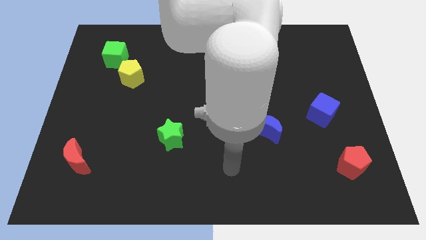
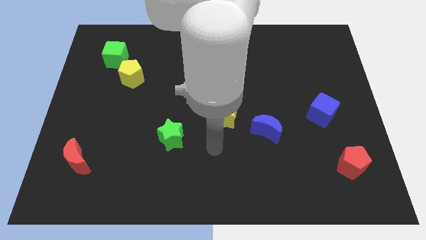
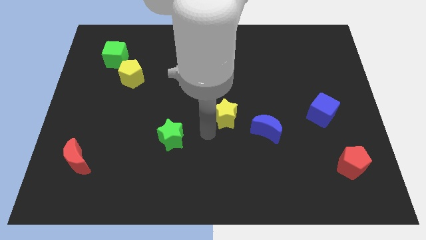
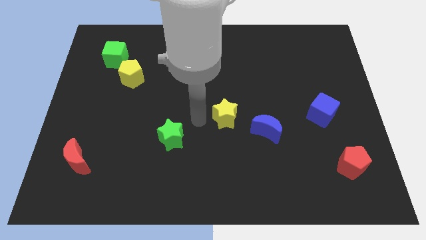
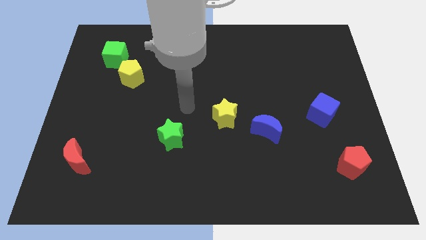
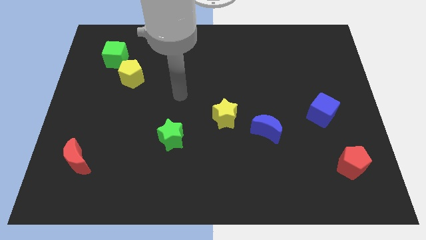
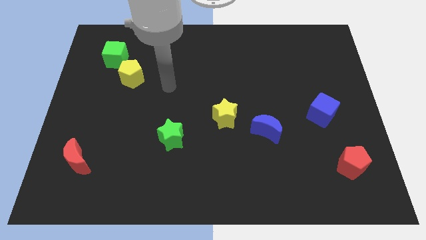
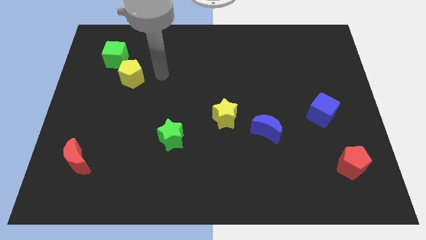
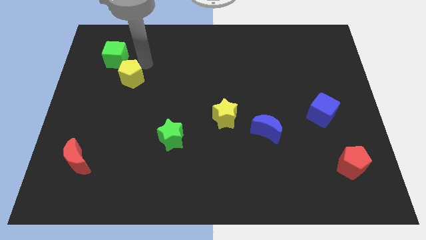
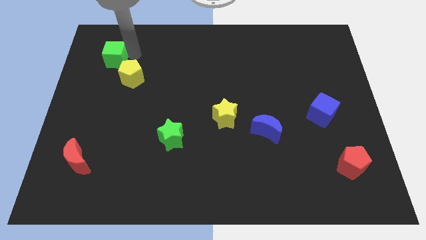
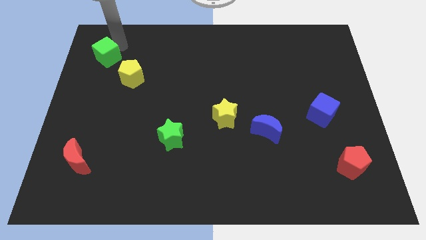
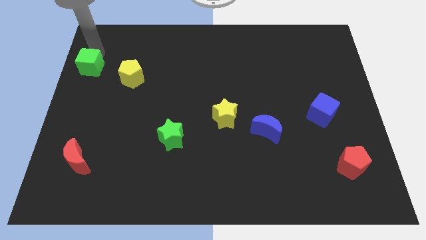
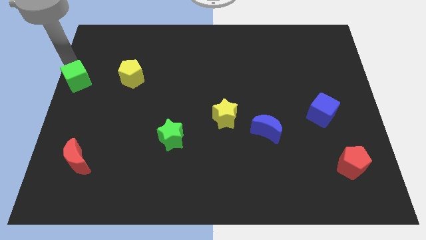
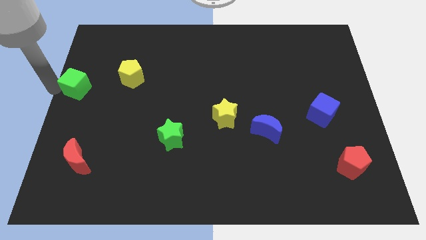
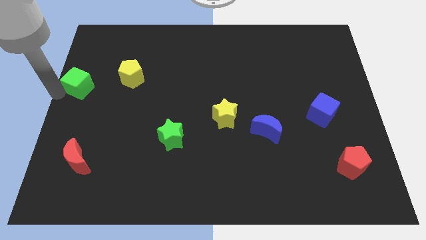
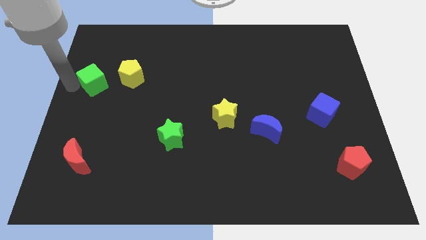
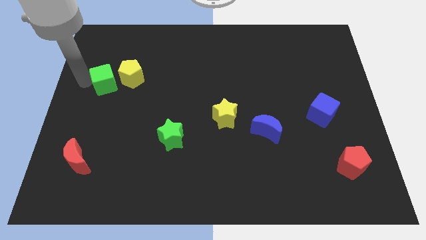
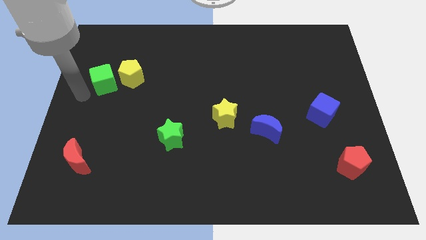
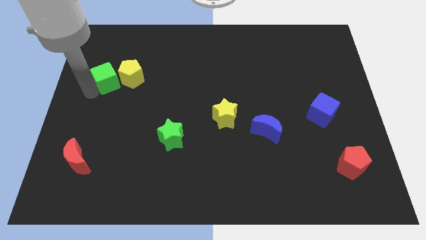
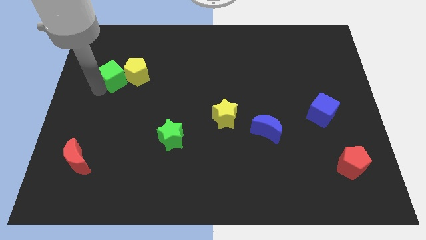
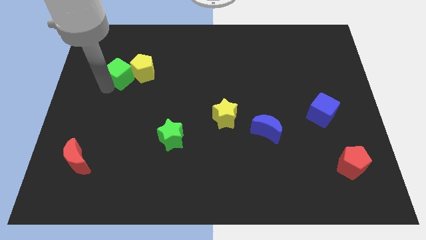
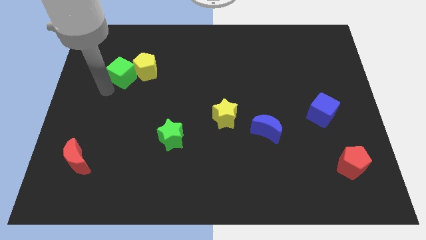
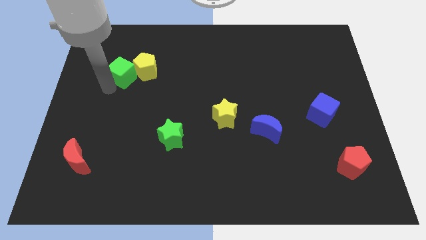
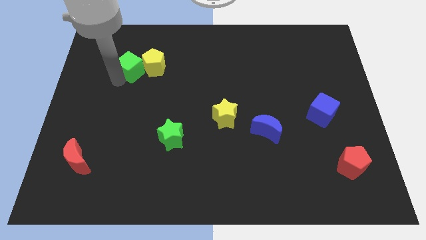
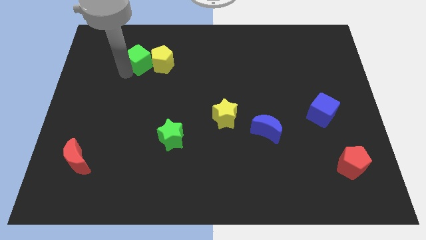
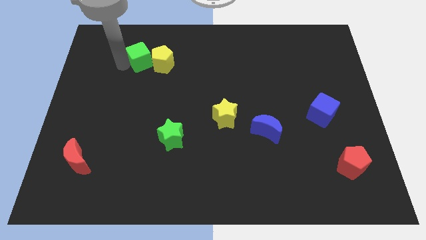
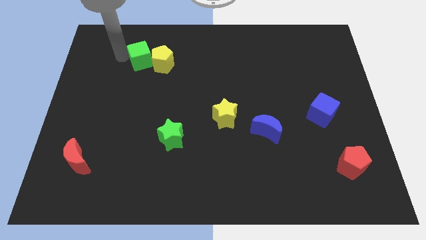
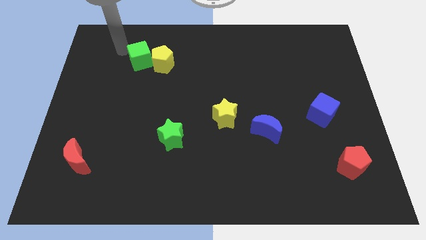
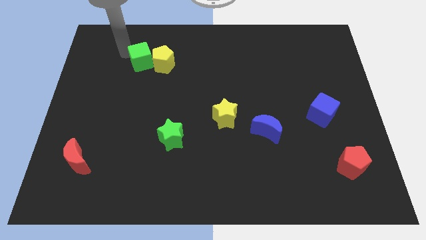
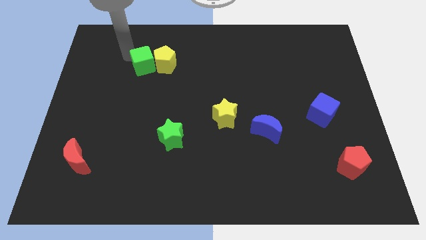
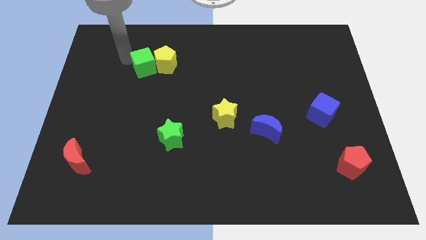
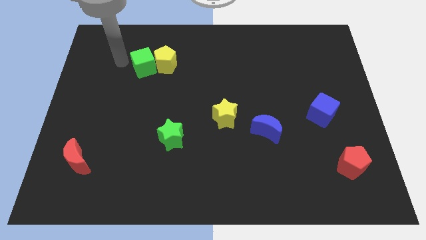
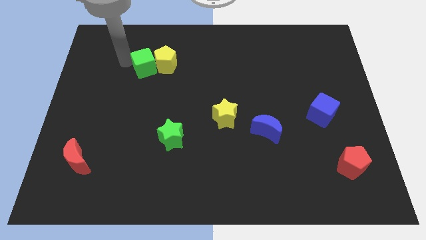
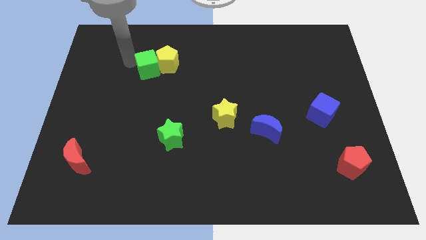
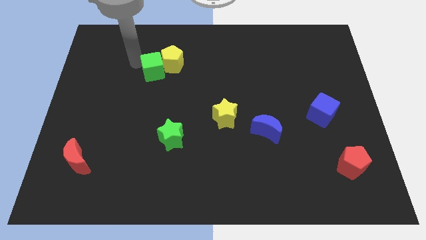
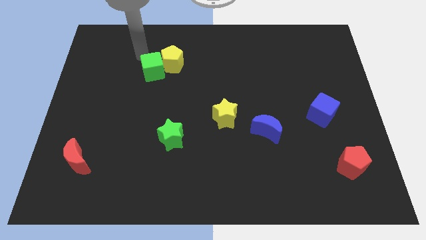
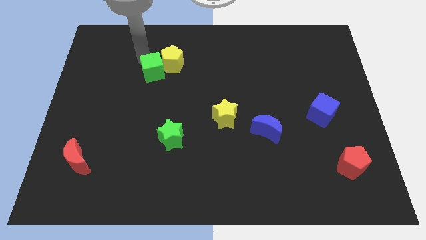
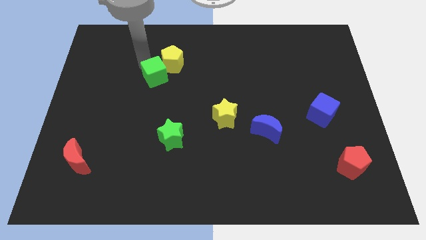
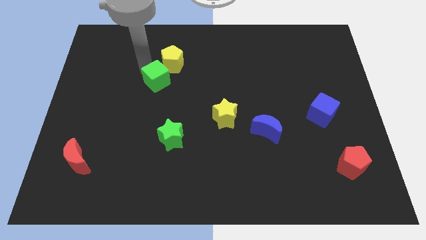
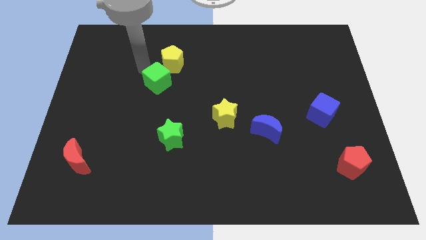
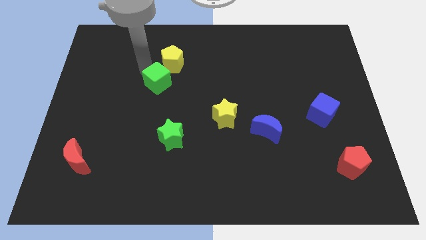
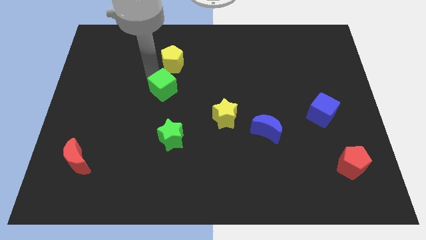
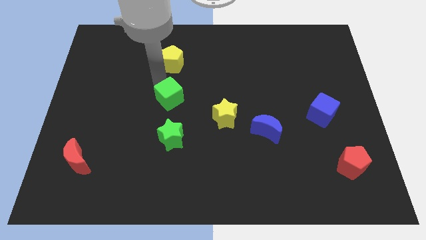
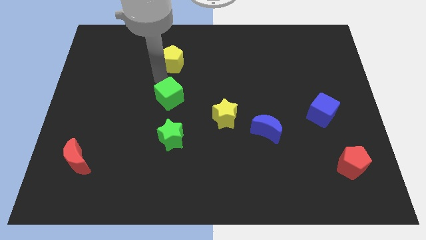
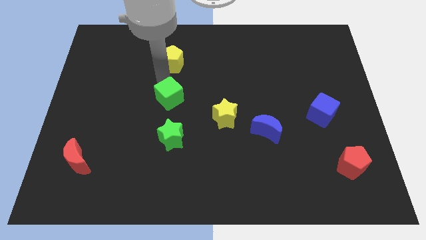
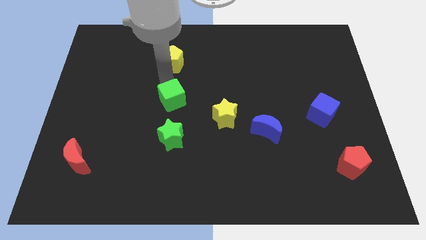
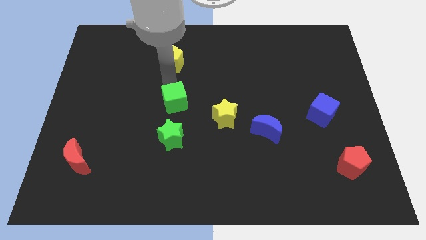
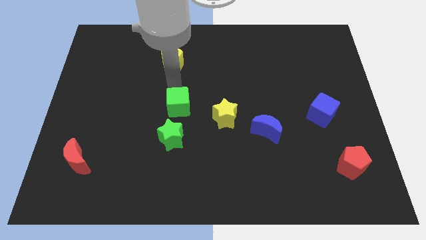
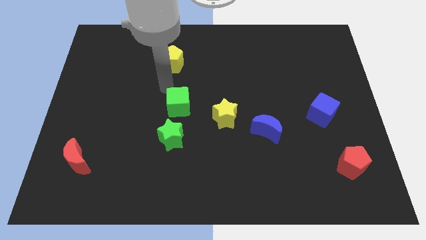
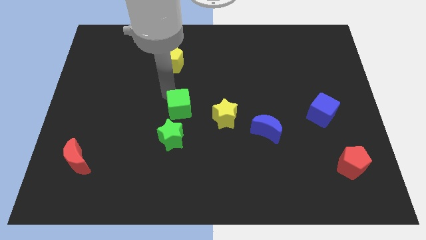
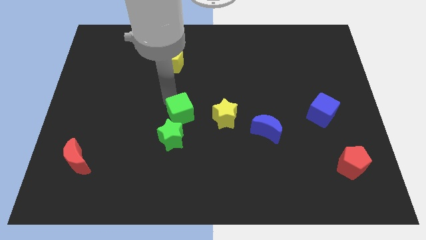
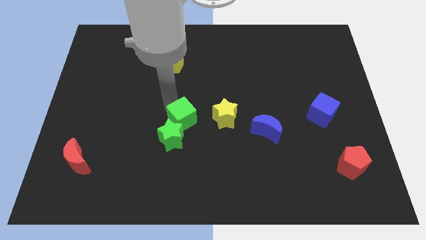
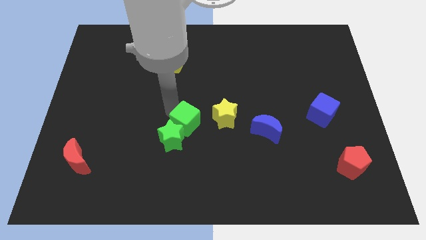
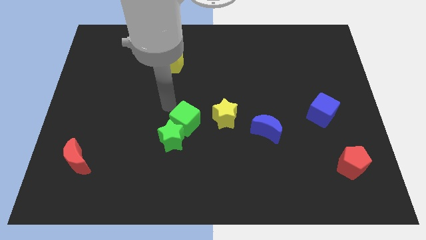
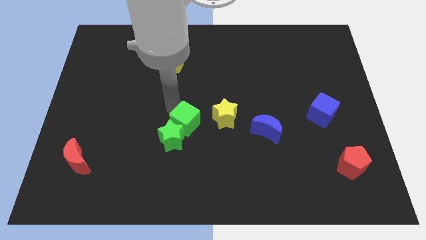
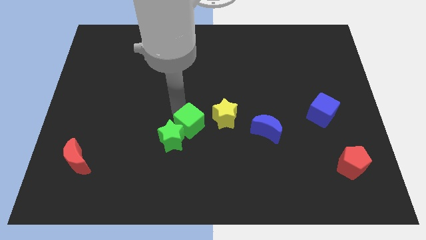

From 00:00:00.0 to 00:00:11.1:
slide the green cube to the bottom left of the yellow star

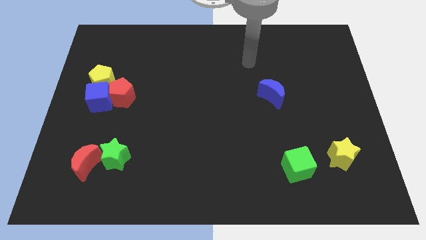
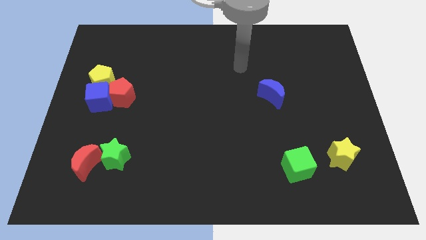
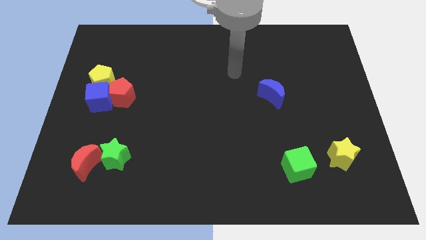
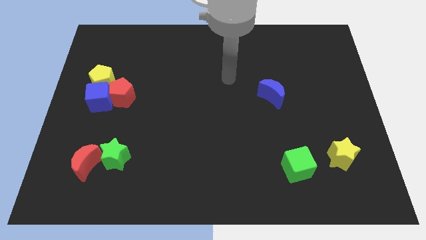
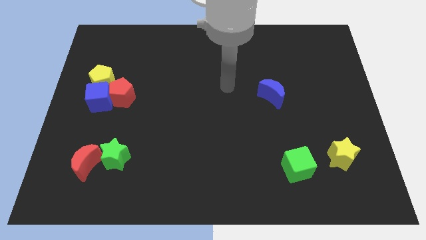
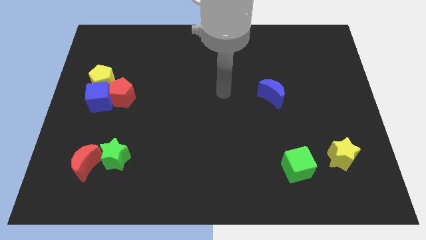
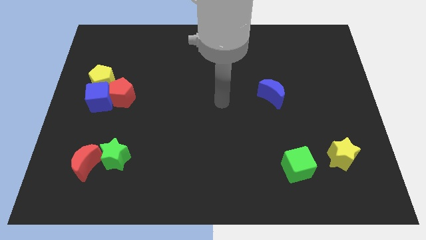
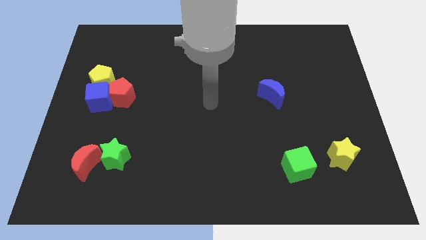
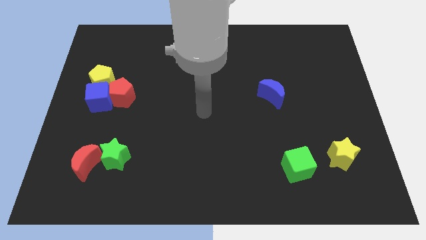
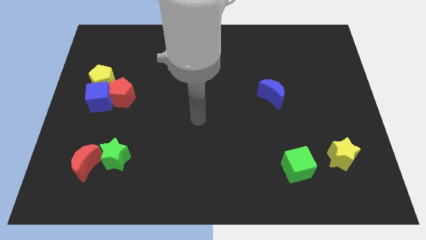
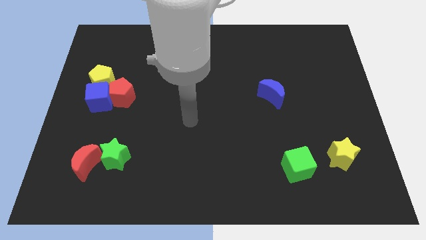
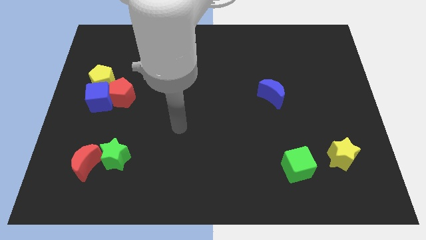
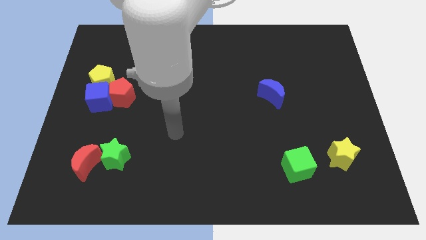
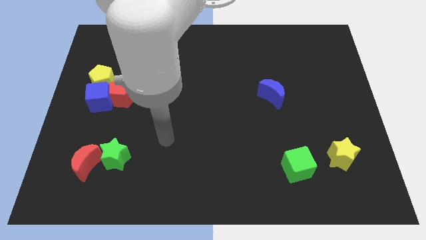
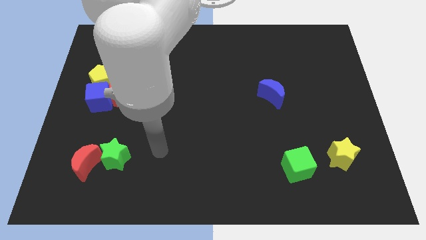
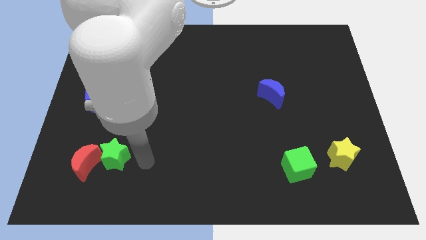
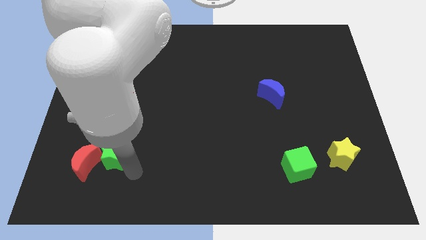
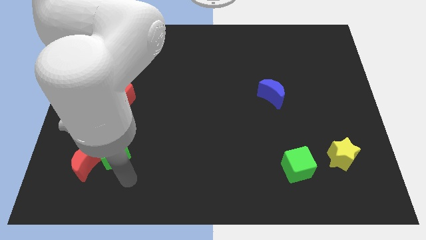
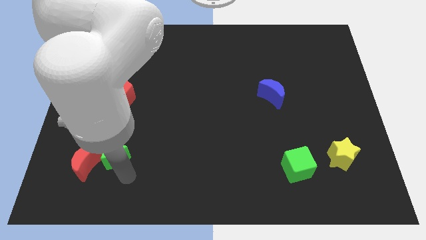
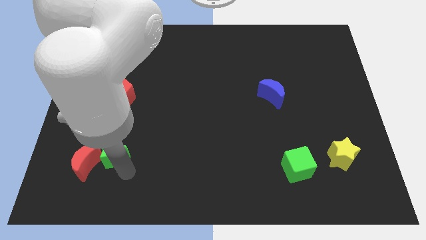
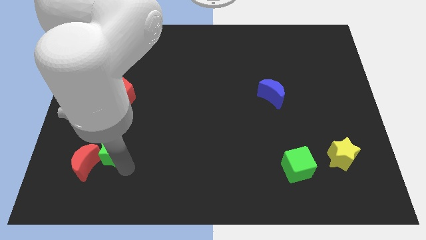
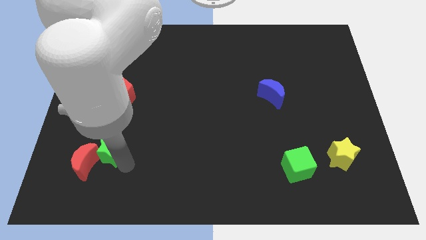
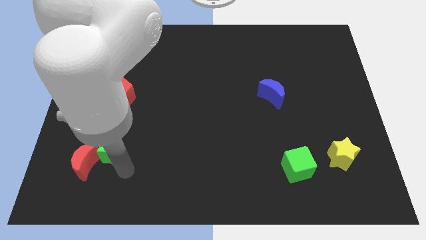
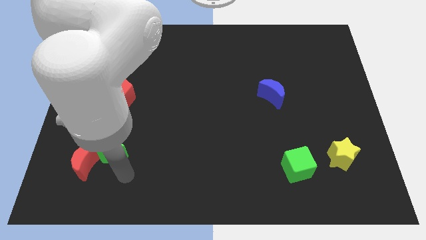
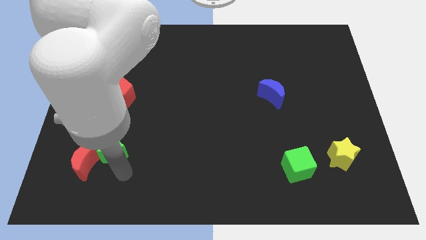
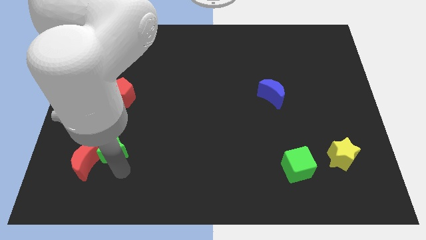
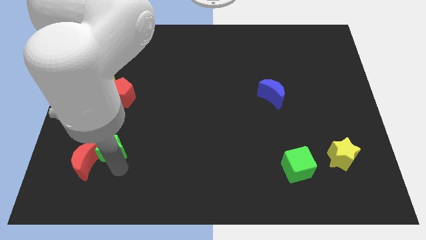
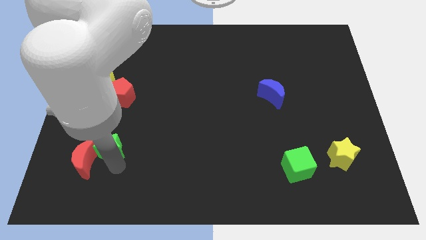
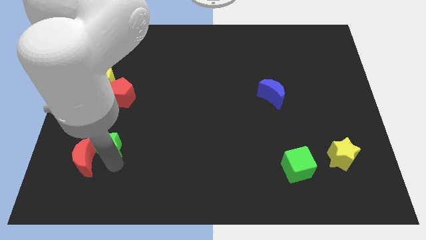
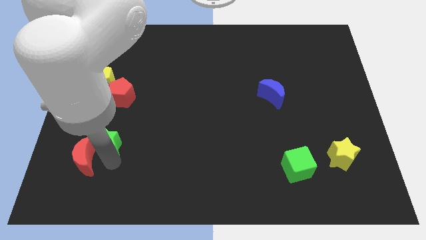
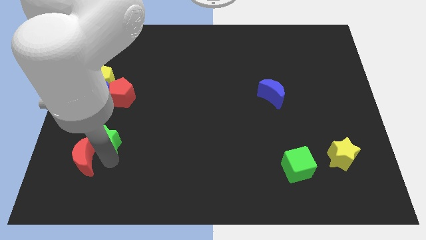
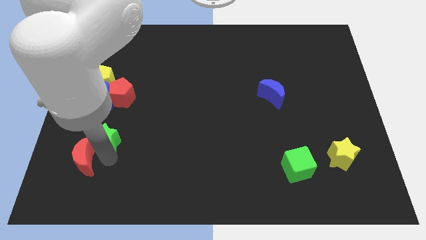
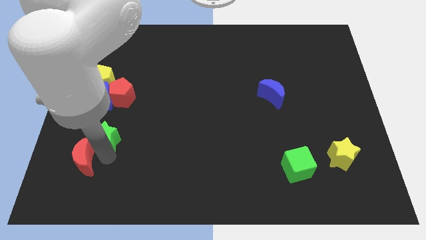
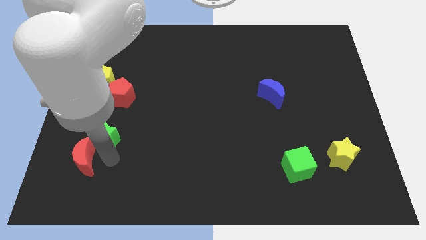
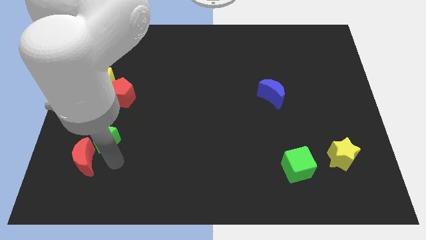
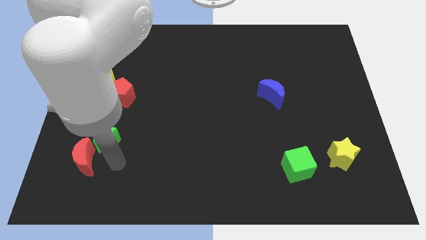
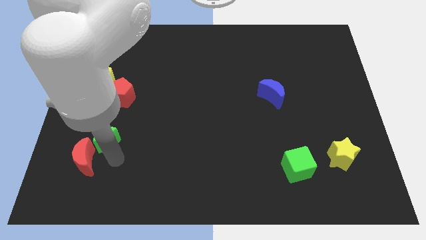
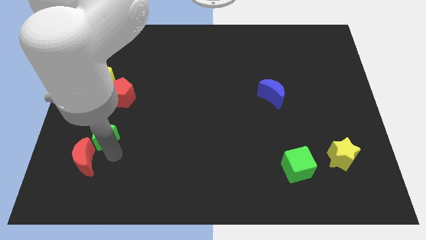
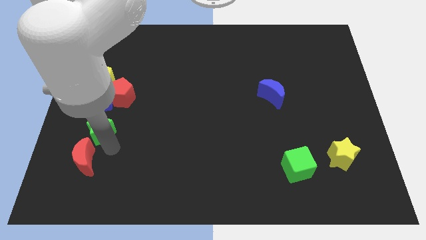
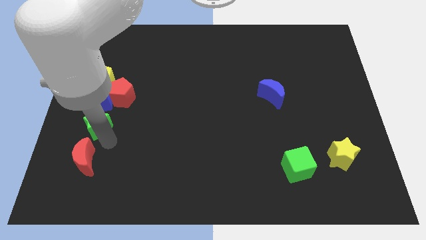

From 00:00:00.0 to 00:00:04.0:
put the green star to the bottom left of the red pentagon
